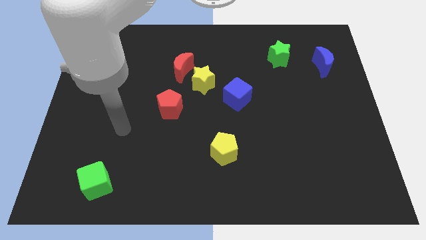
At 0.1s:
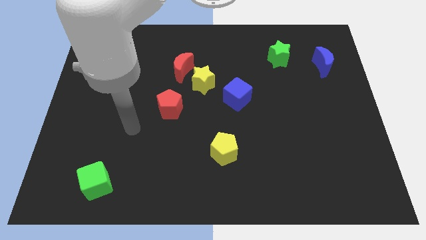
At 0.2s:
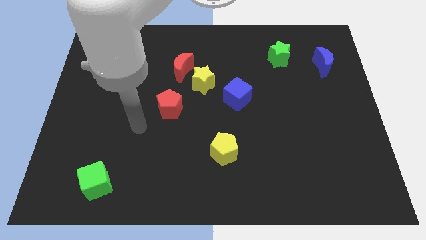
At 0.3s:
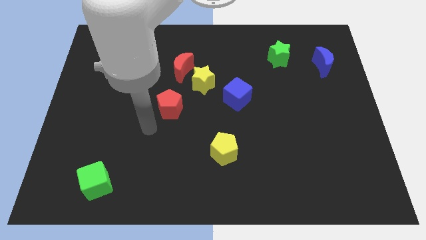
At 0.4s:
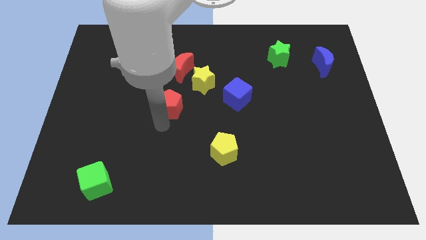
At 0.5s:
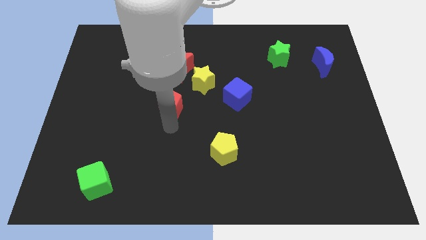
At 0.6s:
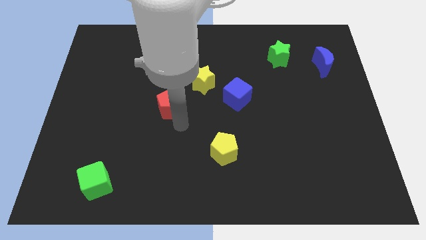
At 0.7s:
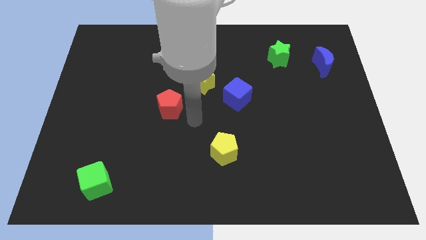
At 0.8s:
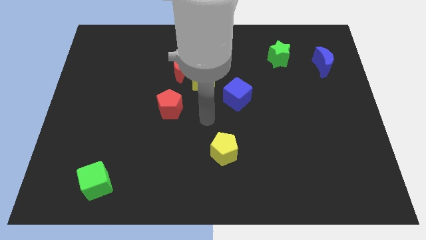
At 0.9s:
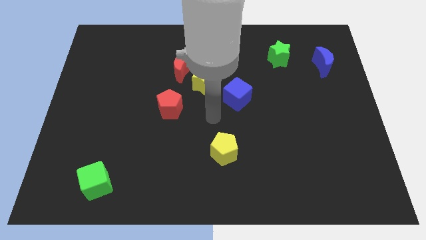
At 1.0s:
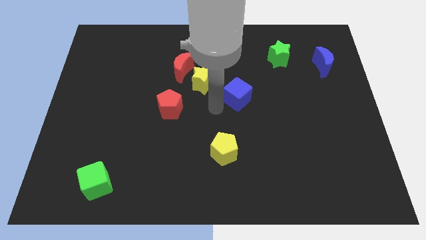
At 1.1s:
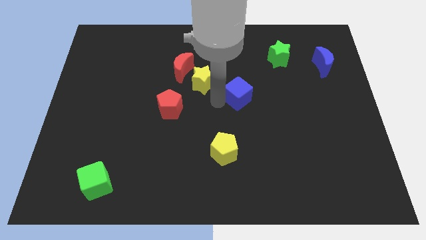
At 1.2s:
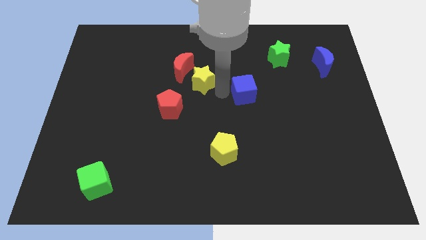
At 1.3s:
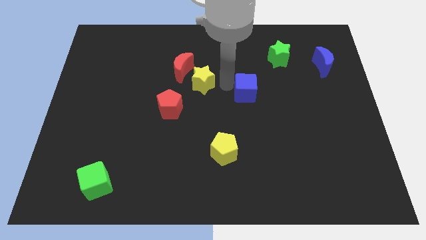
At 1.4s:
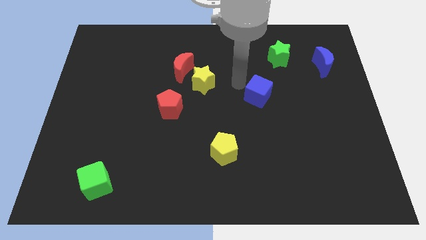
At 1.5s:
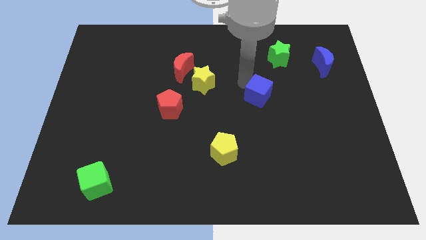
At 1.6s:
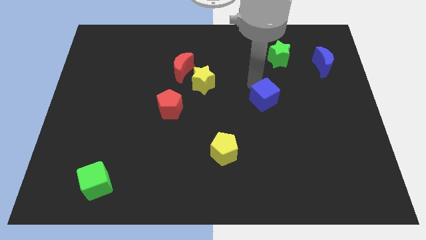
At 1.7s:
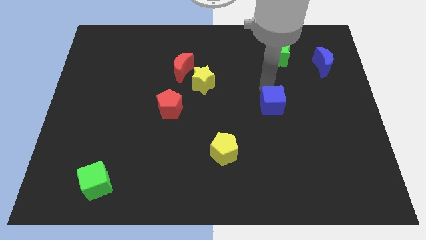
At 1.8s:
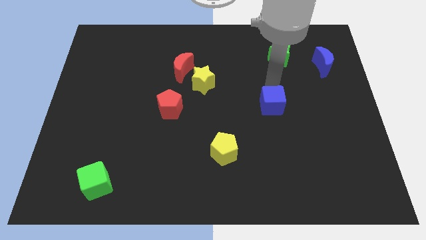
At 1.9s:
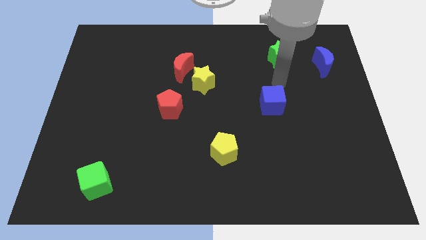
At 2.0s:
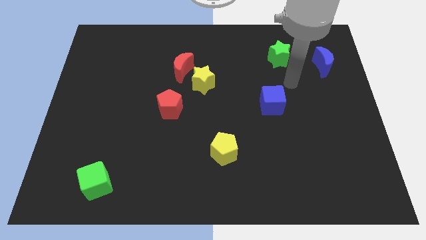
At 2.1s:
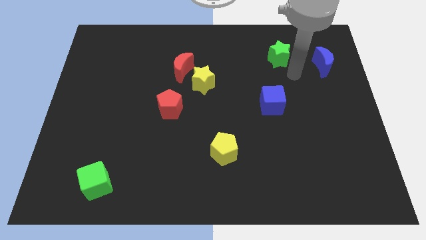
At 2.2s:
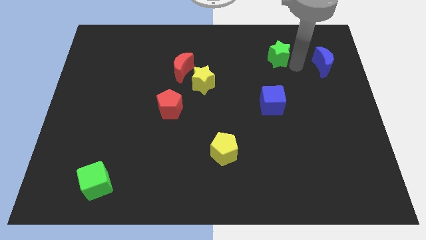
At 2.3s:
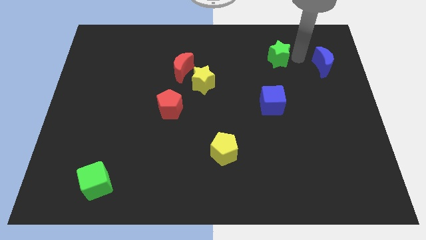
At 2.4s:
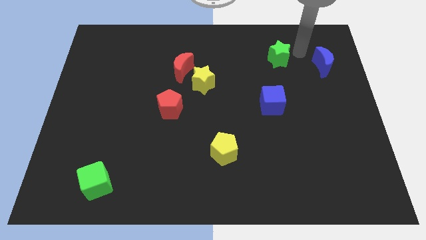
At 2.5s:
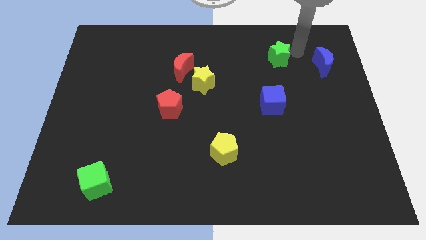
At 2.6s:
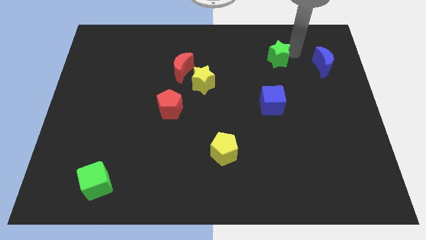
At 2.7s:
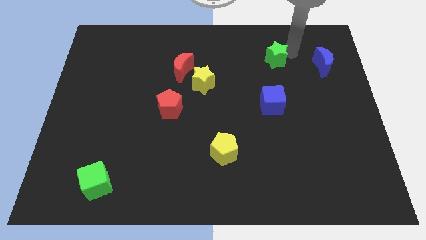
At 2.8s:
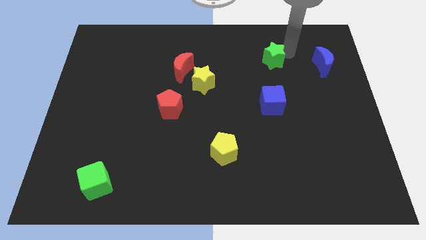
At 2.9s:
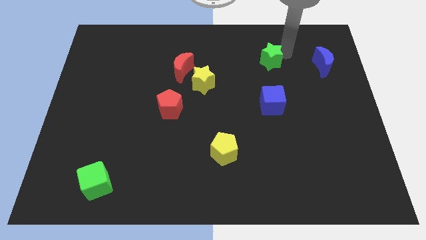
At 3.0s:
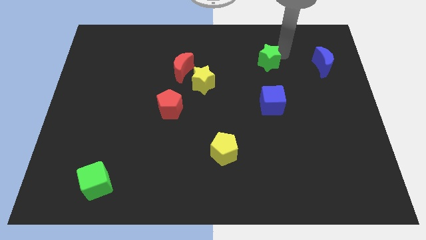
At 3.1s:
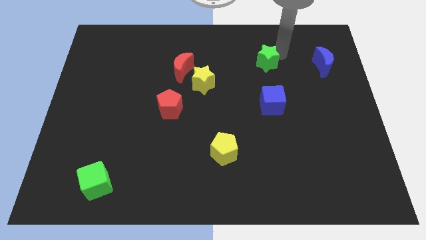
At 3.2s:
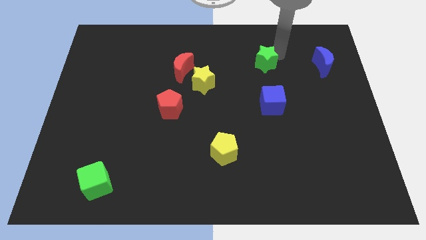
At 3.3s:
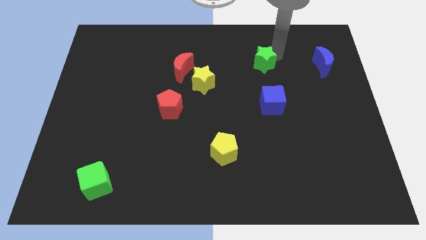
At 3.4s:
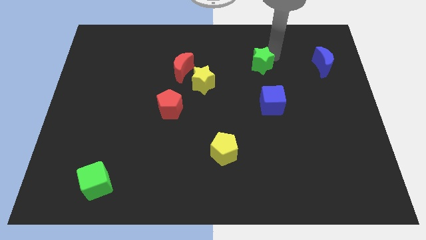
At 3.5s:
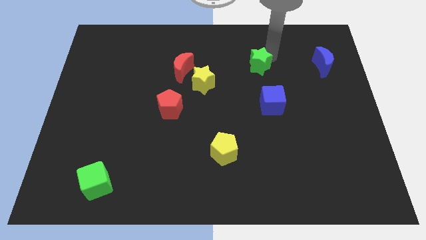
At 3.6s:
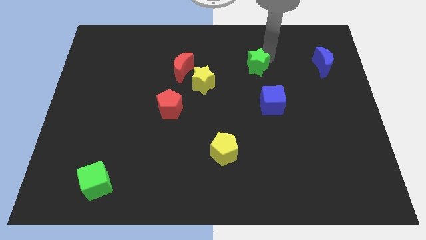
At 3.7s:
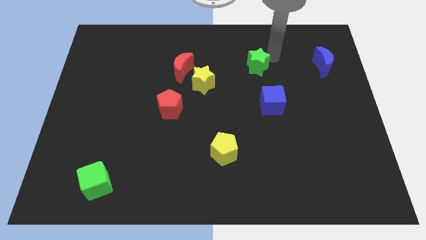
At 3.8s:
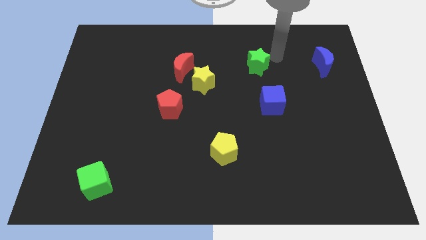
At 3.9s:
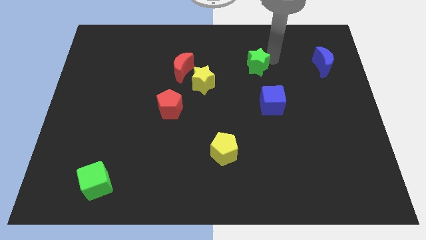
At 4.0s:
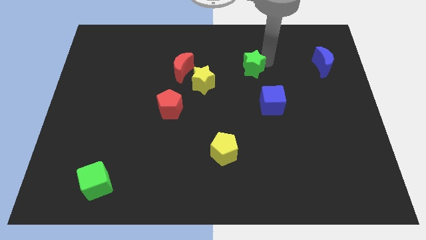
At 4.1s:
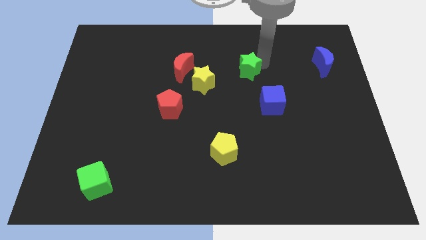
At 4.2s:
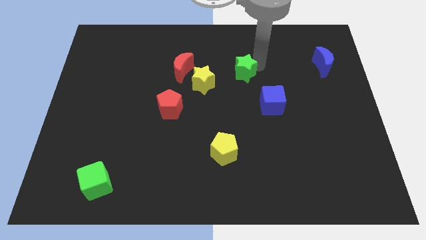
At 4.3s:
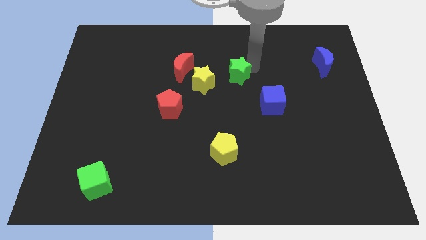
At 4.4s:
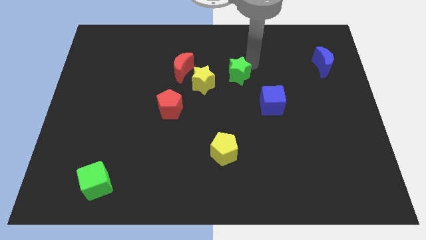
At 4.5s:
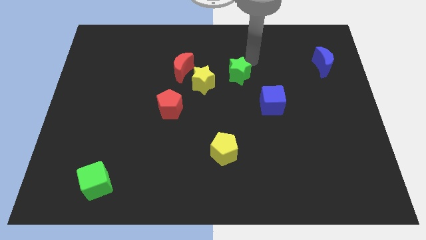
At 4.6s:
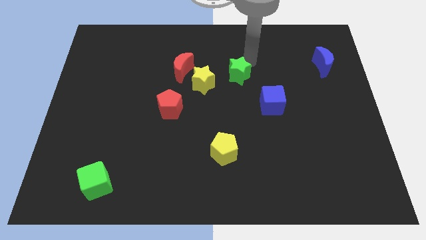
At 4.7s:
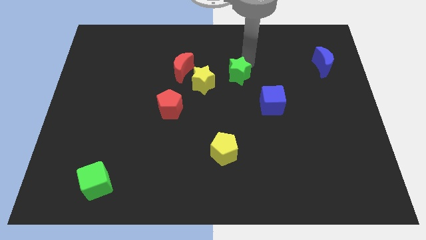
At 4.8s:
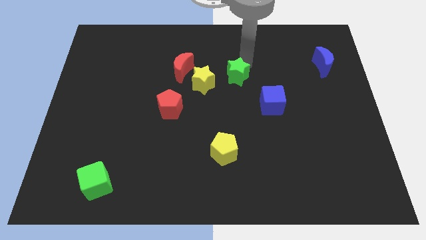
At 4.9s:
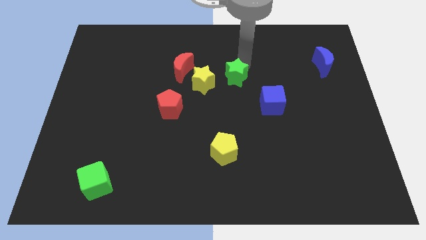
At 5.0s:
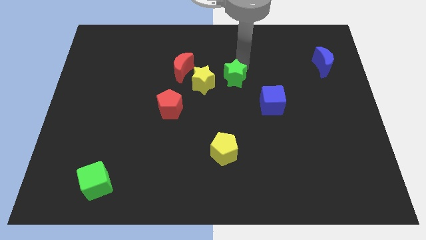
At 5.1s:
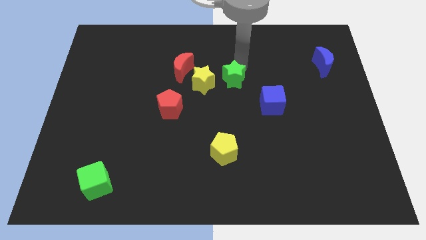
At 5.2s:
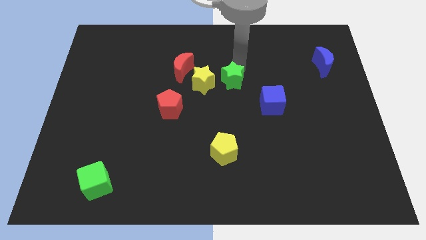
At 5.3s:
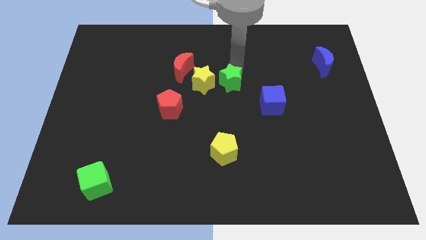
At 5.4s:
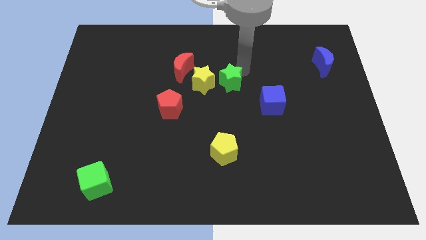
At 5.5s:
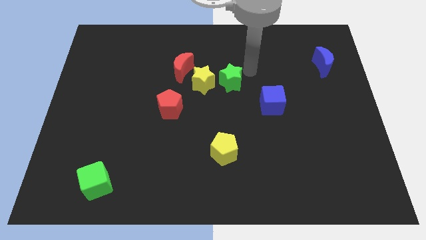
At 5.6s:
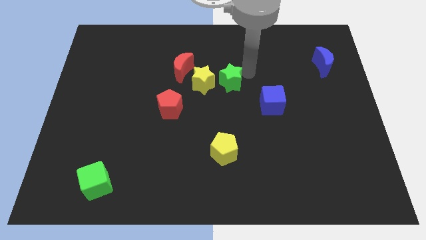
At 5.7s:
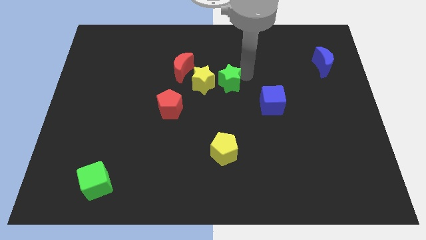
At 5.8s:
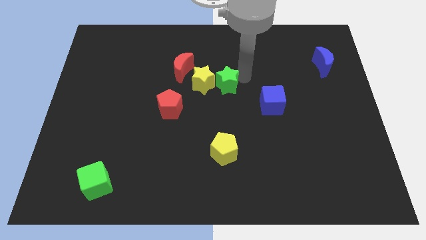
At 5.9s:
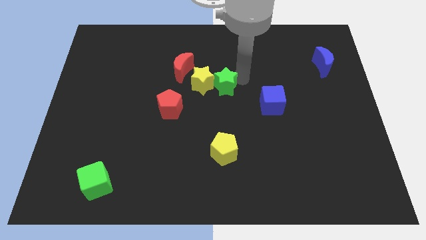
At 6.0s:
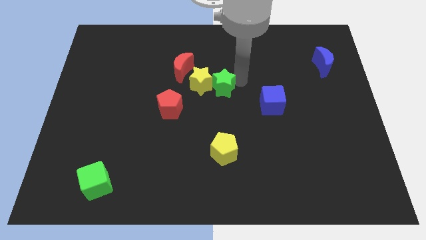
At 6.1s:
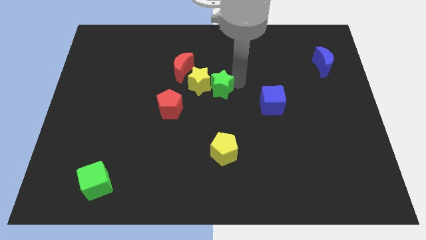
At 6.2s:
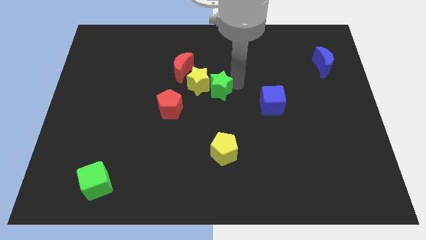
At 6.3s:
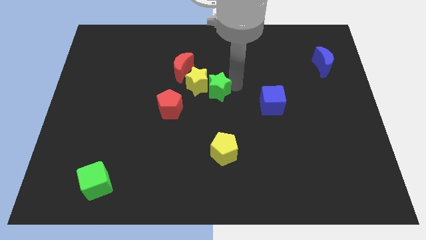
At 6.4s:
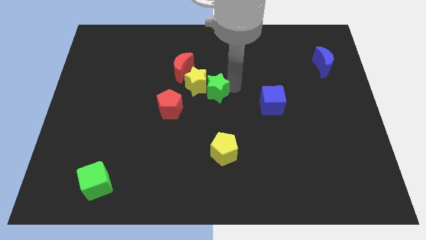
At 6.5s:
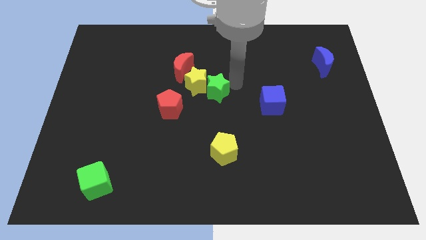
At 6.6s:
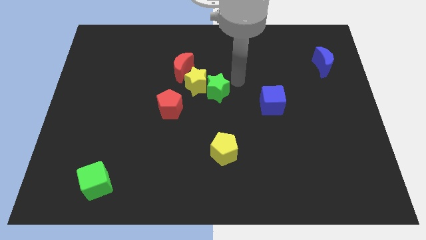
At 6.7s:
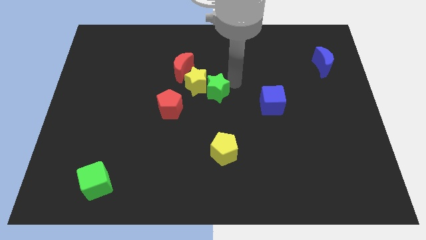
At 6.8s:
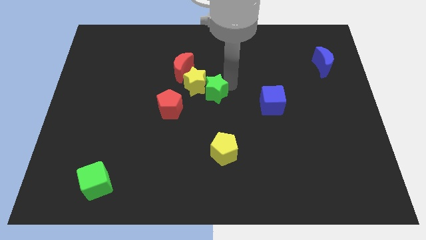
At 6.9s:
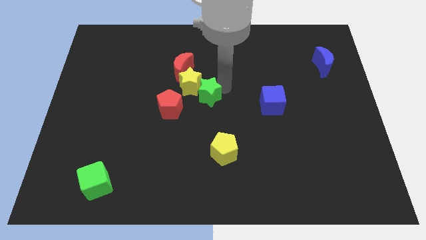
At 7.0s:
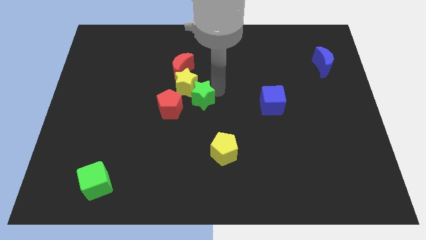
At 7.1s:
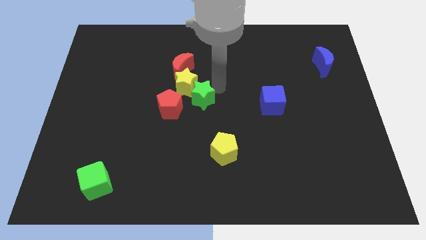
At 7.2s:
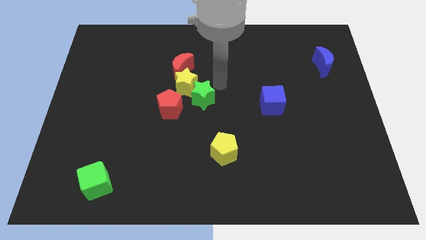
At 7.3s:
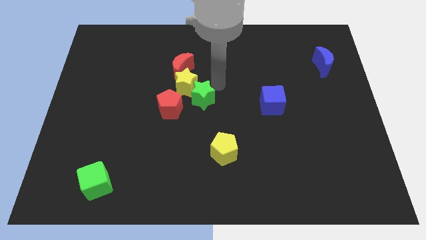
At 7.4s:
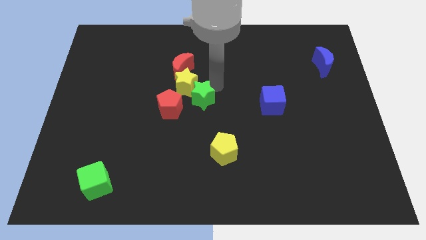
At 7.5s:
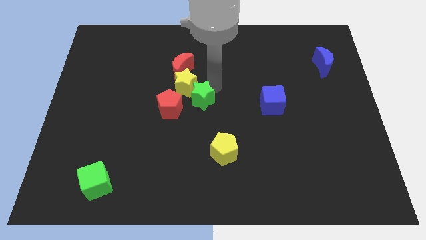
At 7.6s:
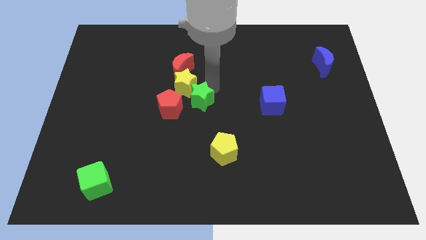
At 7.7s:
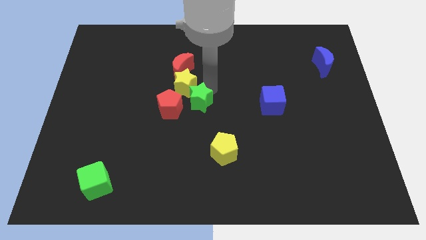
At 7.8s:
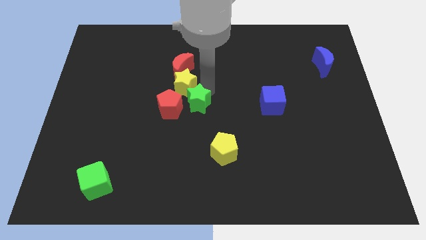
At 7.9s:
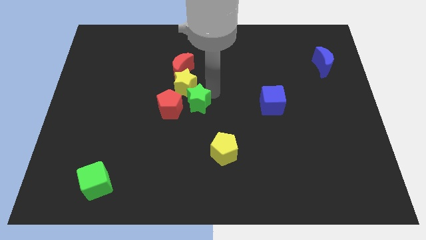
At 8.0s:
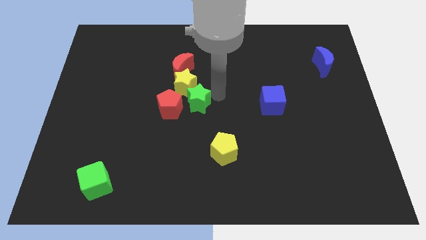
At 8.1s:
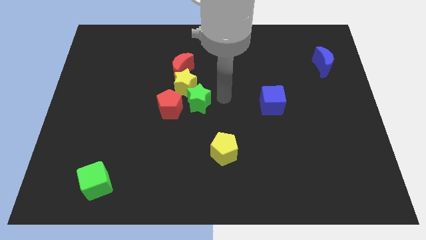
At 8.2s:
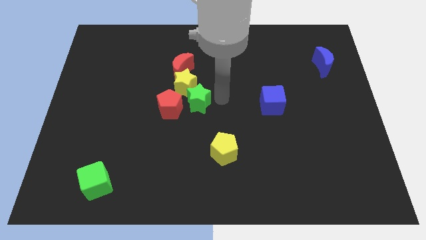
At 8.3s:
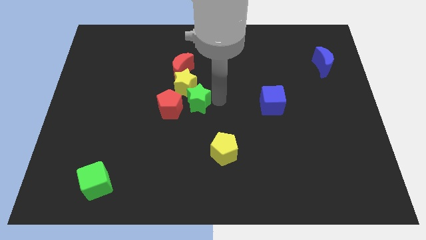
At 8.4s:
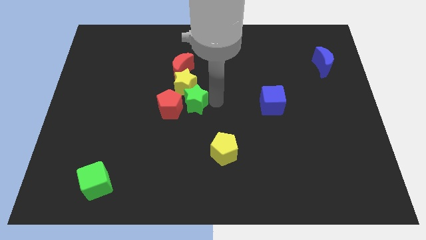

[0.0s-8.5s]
put the green star close to the red pentagon
